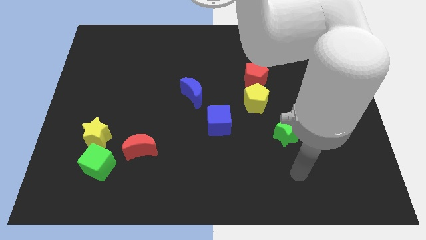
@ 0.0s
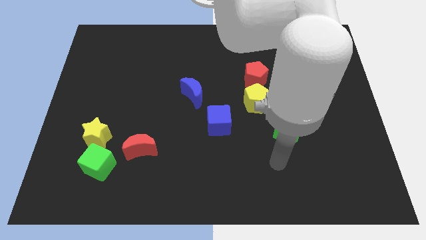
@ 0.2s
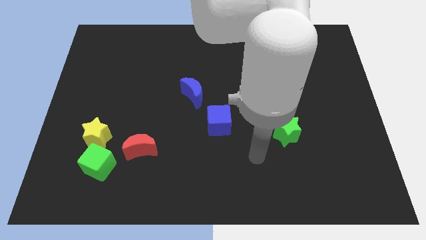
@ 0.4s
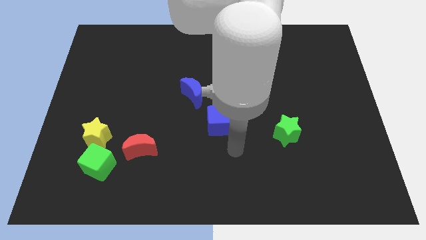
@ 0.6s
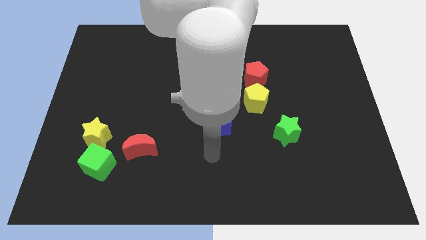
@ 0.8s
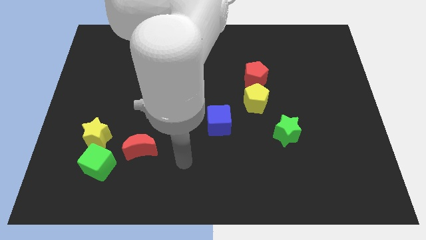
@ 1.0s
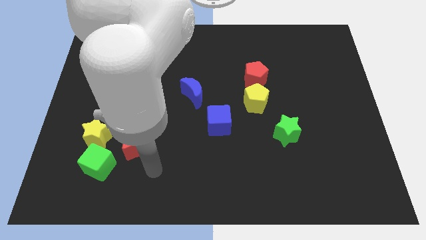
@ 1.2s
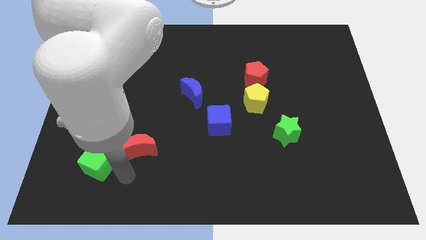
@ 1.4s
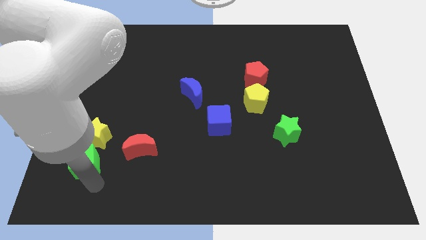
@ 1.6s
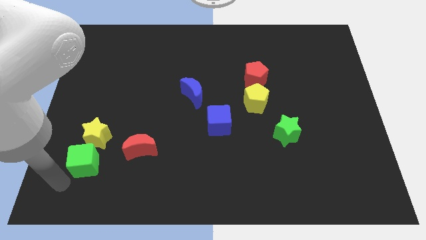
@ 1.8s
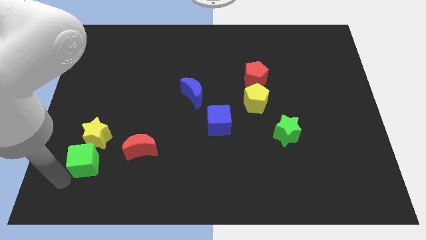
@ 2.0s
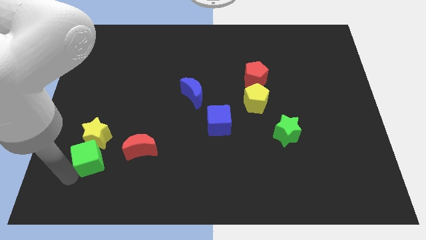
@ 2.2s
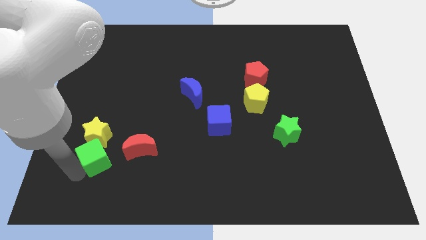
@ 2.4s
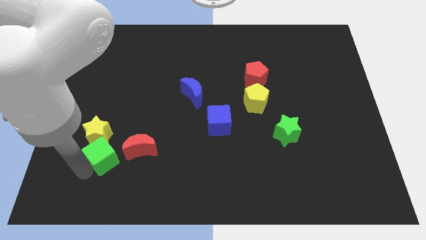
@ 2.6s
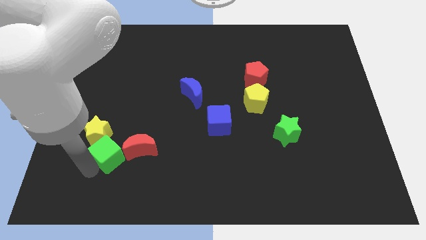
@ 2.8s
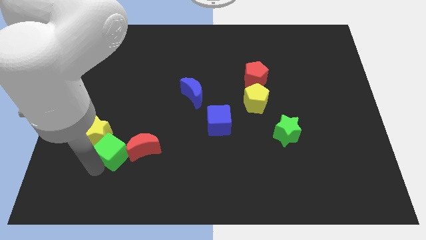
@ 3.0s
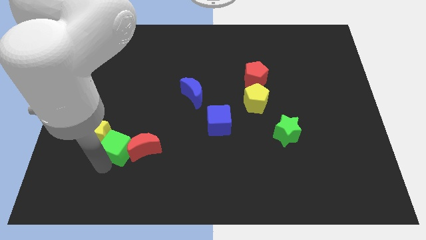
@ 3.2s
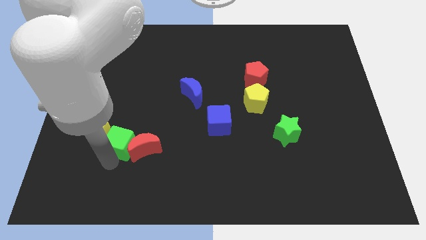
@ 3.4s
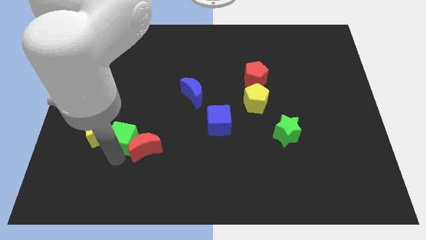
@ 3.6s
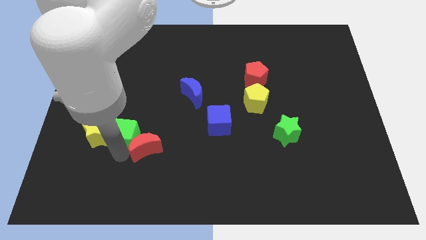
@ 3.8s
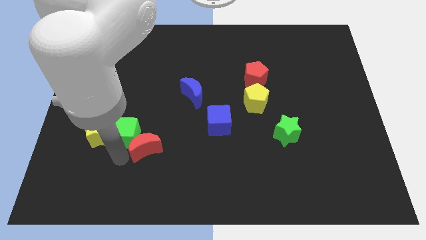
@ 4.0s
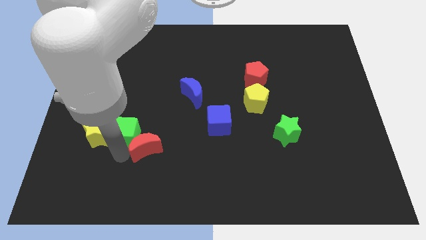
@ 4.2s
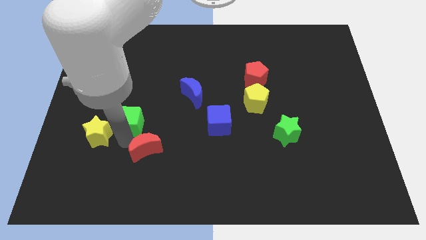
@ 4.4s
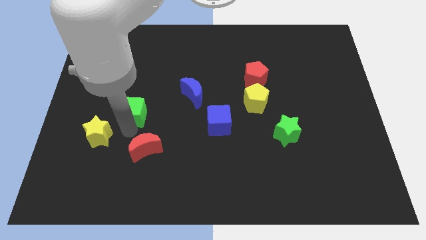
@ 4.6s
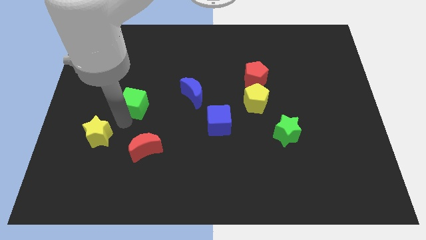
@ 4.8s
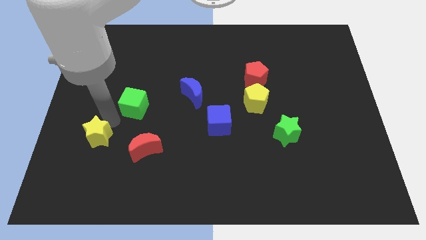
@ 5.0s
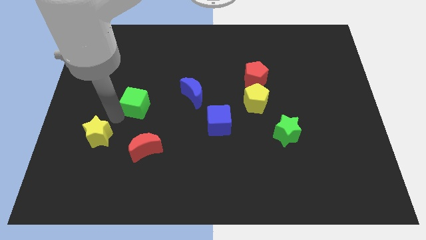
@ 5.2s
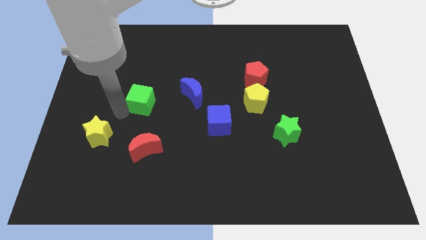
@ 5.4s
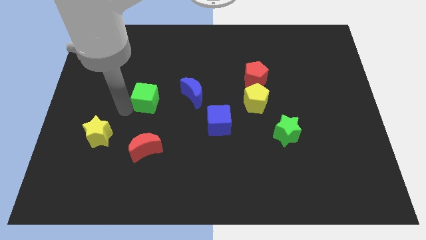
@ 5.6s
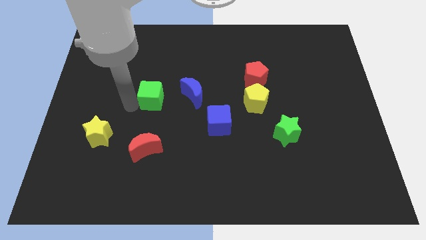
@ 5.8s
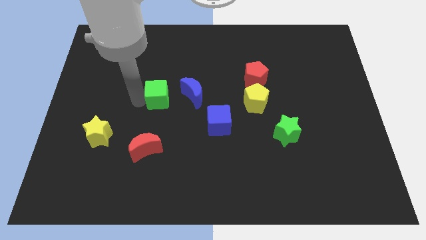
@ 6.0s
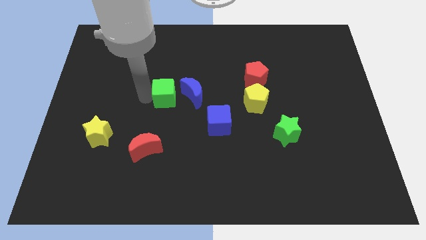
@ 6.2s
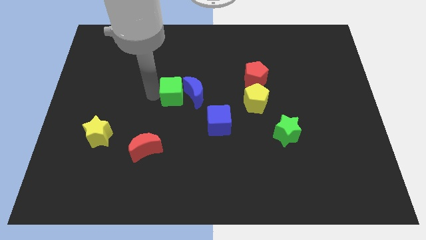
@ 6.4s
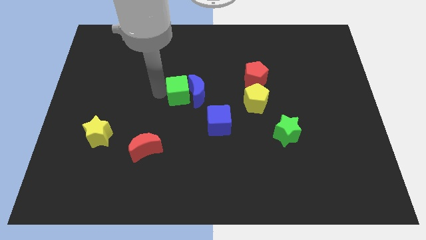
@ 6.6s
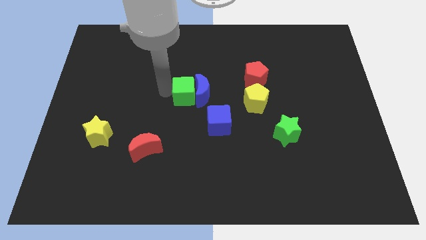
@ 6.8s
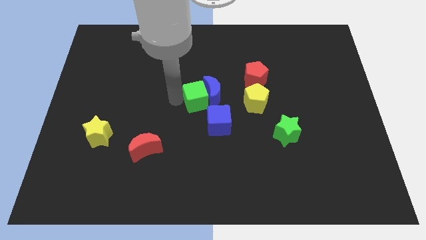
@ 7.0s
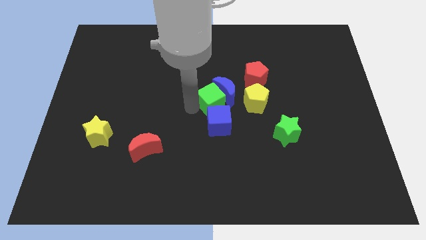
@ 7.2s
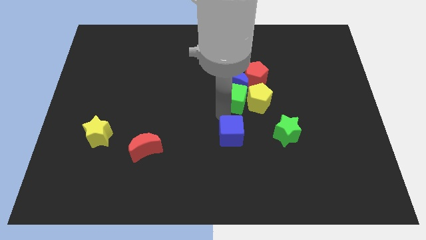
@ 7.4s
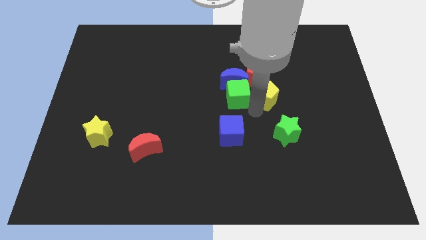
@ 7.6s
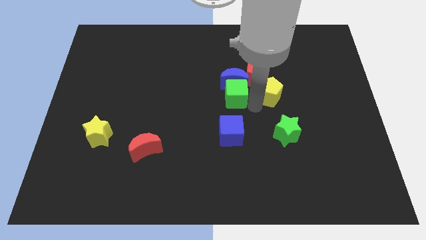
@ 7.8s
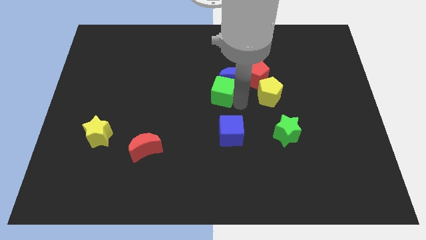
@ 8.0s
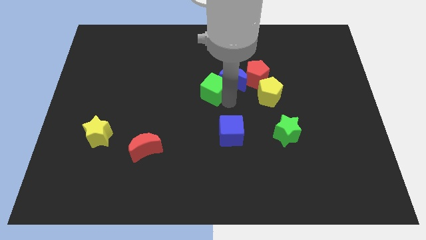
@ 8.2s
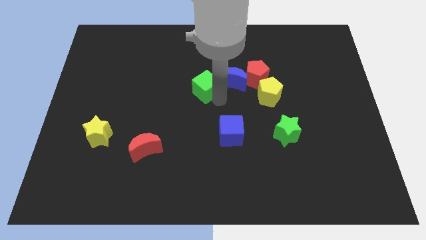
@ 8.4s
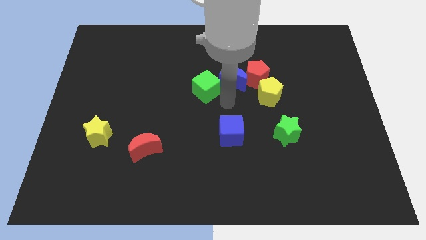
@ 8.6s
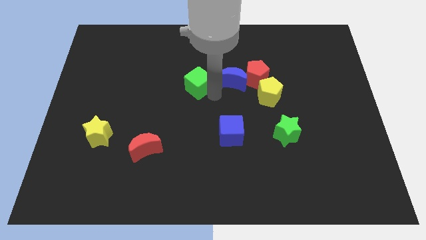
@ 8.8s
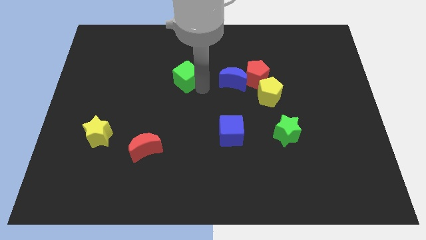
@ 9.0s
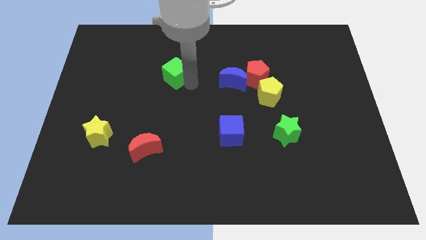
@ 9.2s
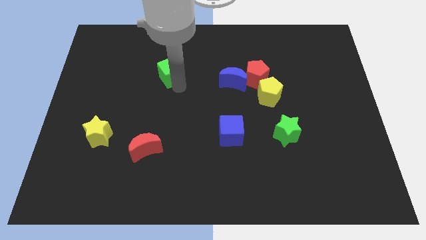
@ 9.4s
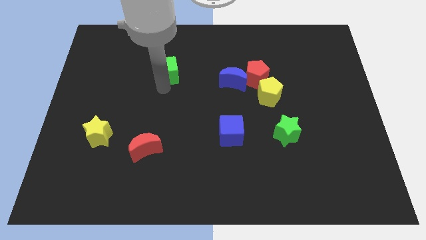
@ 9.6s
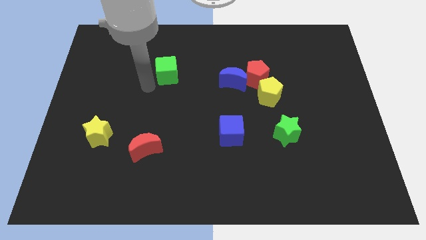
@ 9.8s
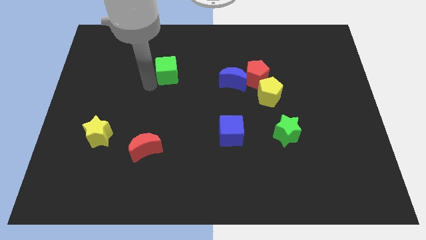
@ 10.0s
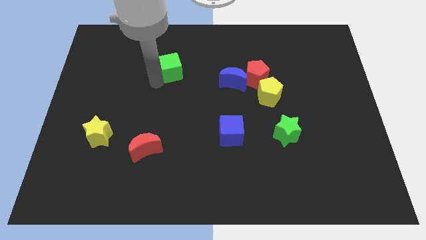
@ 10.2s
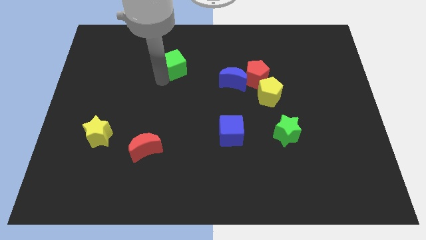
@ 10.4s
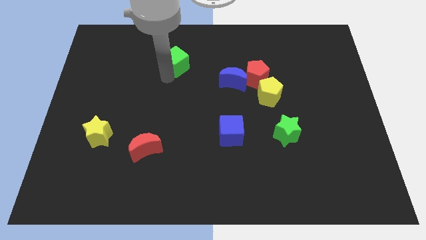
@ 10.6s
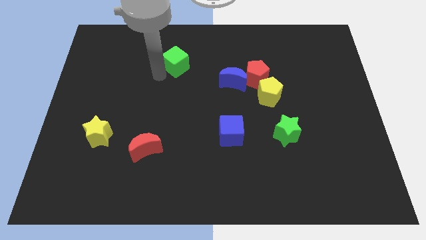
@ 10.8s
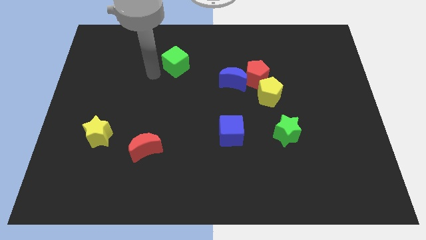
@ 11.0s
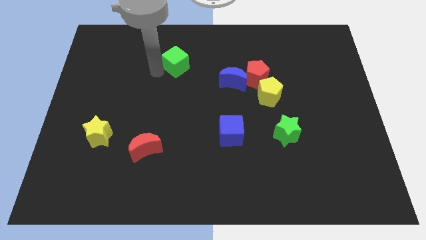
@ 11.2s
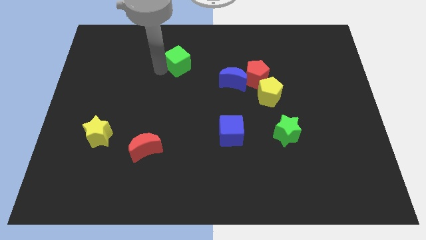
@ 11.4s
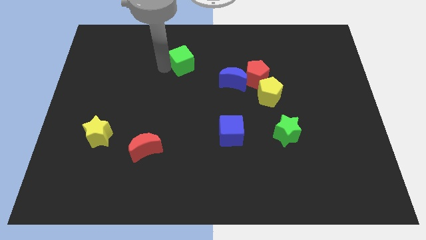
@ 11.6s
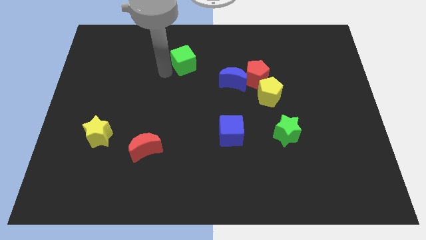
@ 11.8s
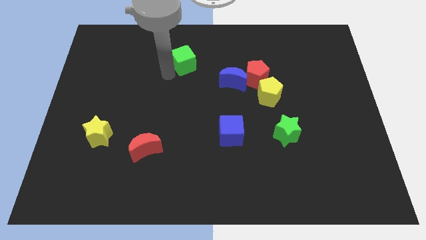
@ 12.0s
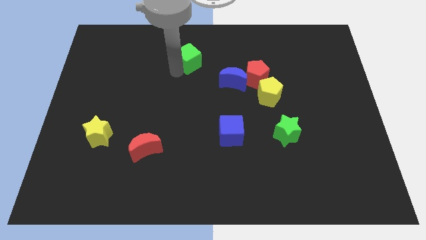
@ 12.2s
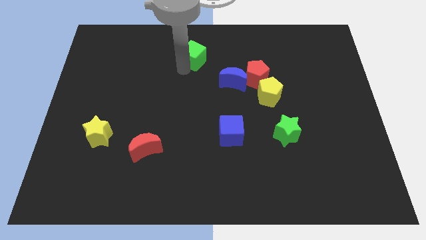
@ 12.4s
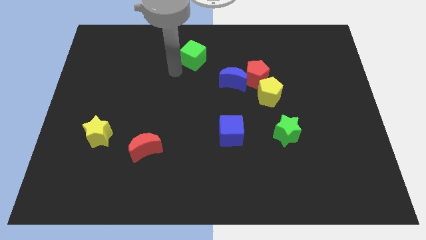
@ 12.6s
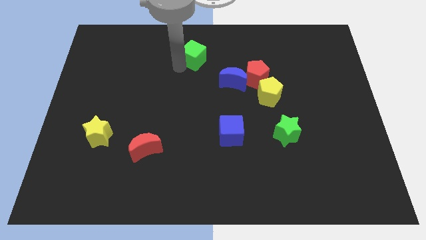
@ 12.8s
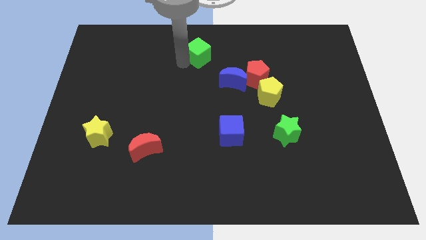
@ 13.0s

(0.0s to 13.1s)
slide the green cube to the towards your base

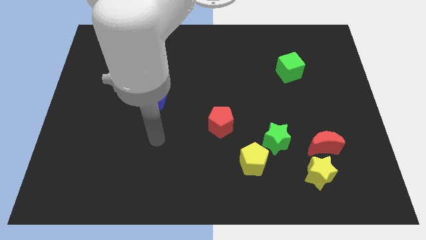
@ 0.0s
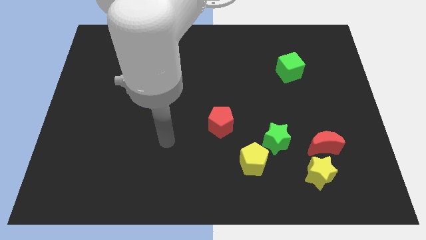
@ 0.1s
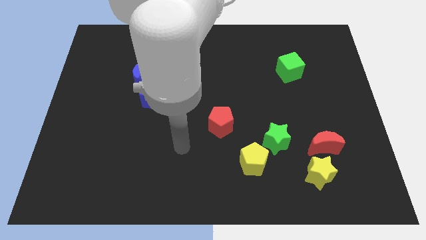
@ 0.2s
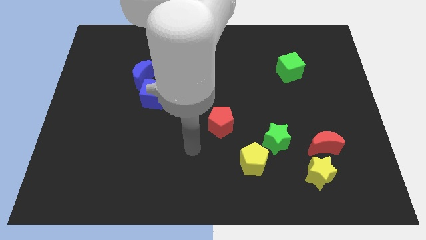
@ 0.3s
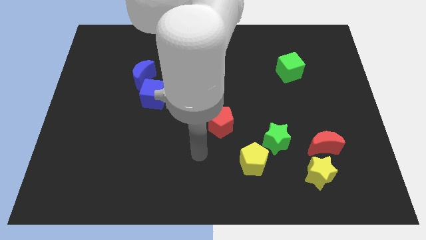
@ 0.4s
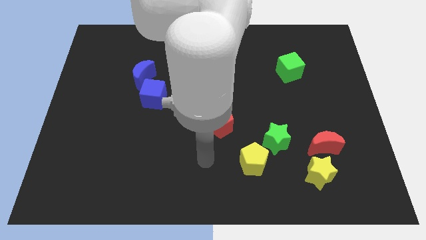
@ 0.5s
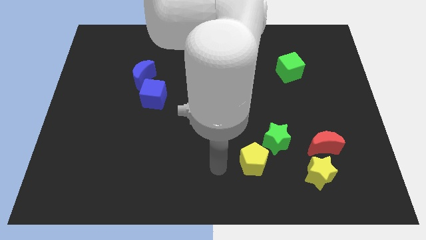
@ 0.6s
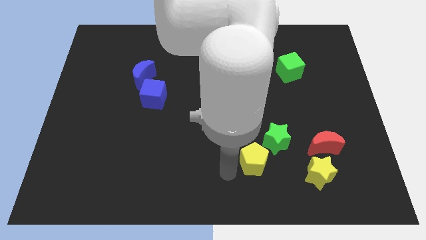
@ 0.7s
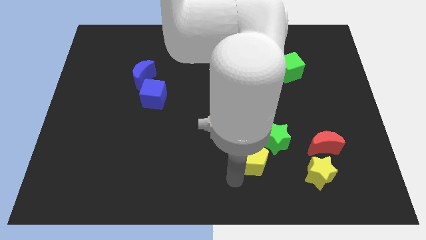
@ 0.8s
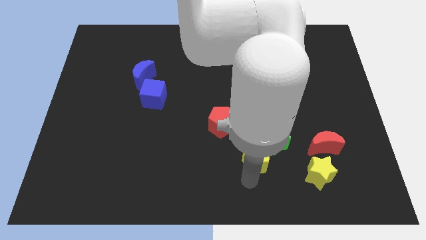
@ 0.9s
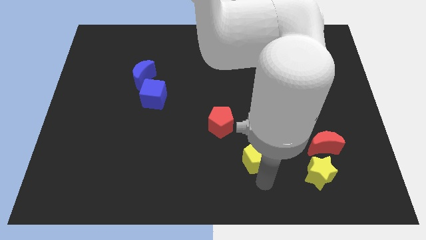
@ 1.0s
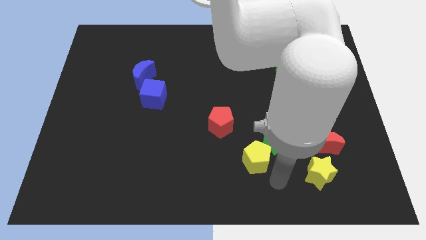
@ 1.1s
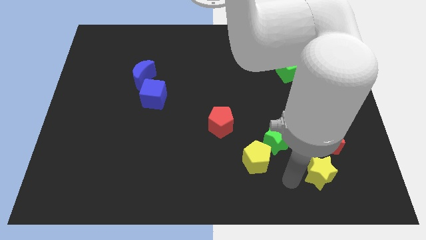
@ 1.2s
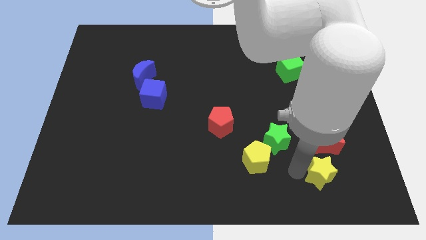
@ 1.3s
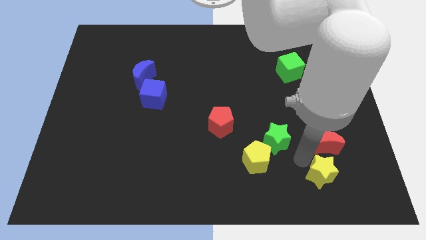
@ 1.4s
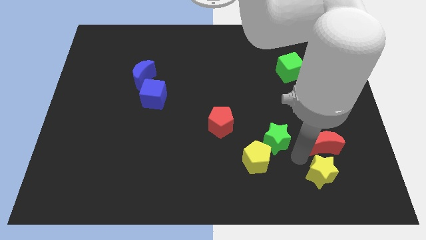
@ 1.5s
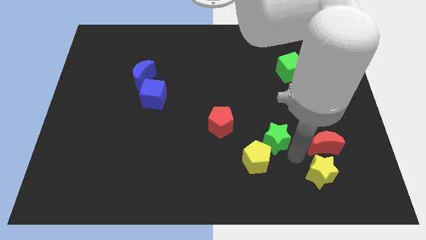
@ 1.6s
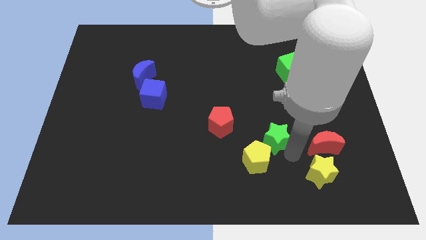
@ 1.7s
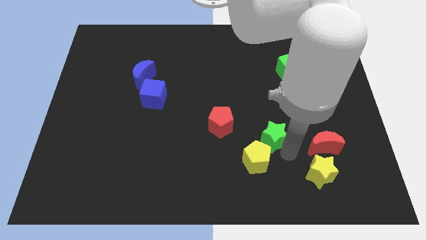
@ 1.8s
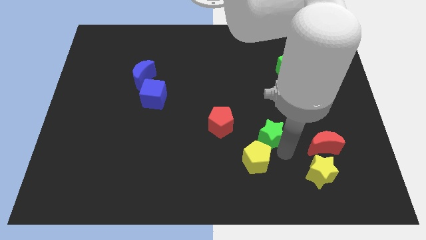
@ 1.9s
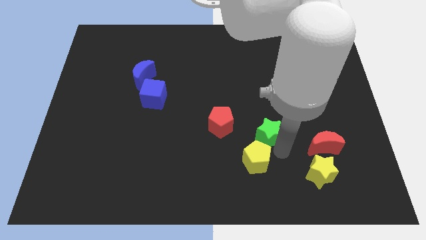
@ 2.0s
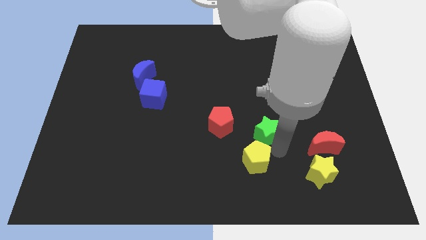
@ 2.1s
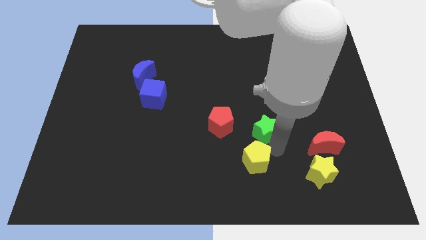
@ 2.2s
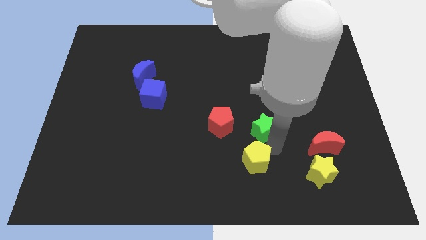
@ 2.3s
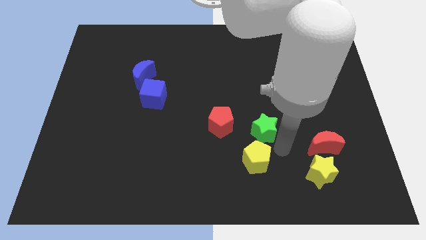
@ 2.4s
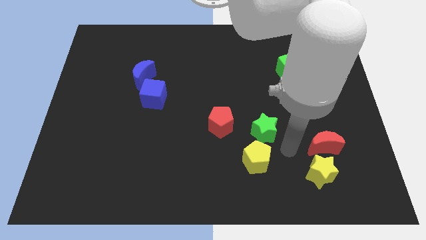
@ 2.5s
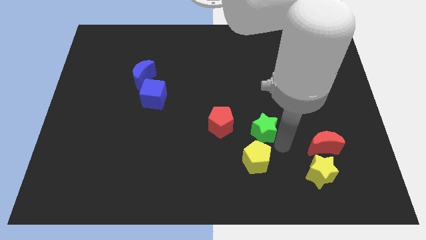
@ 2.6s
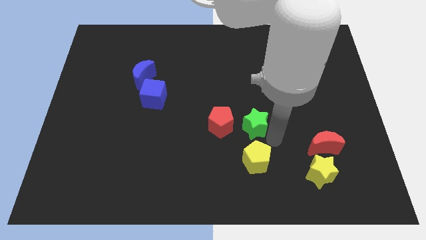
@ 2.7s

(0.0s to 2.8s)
move the green star to the center
